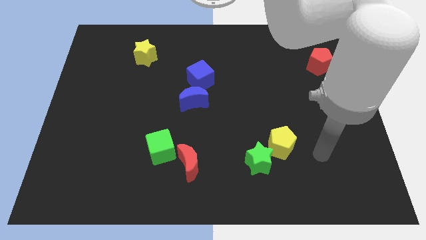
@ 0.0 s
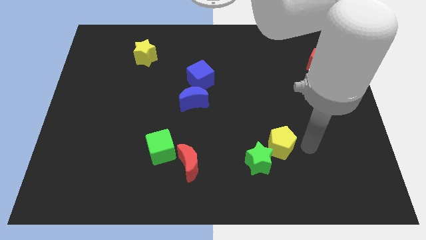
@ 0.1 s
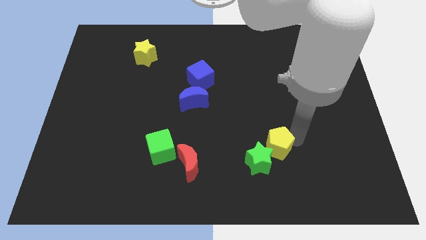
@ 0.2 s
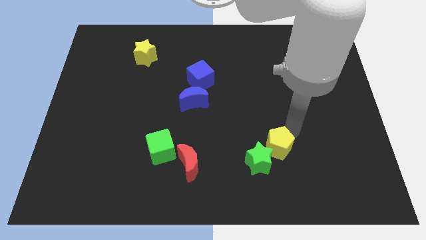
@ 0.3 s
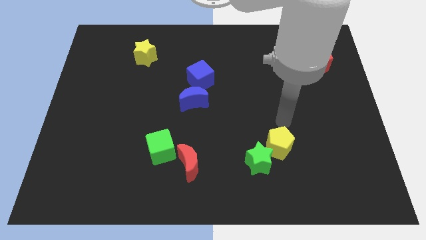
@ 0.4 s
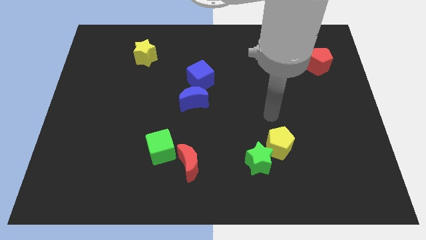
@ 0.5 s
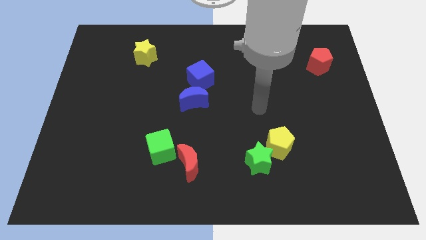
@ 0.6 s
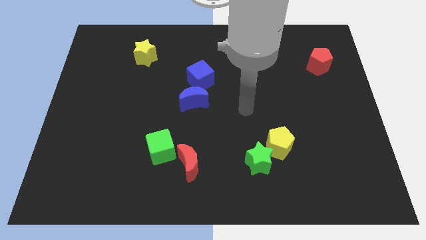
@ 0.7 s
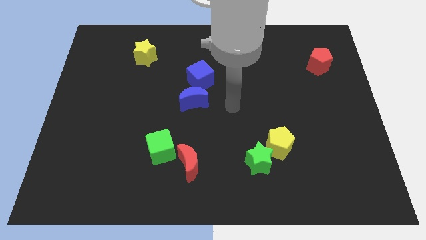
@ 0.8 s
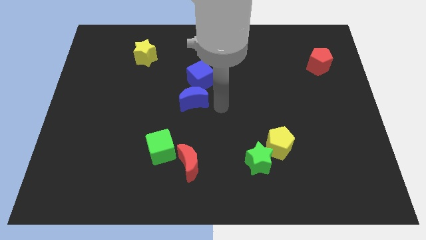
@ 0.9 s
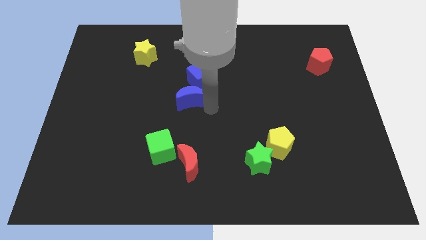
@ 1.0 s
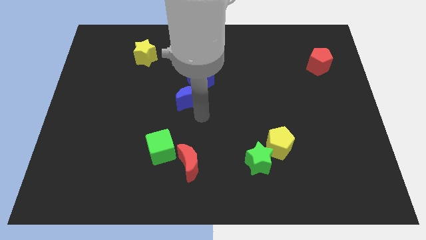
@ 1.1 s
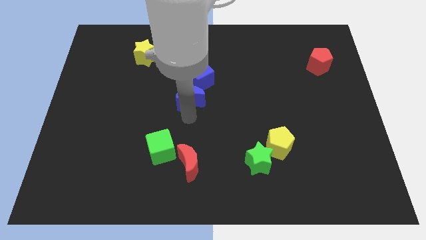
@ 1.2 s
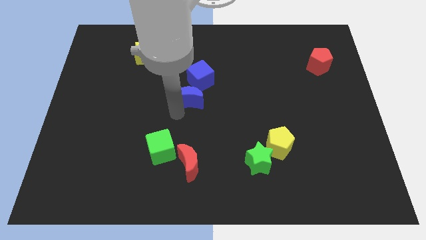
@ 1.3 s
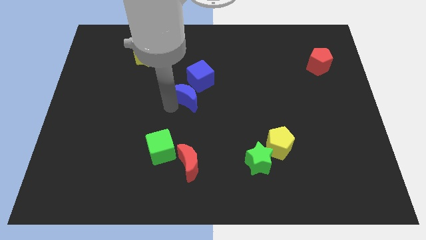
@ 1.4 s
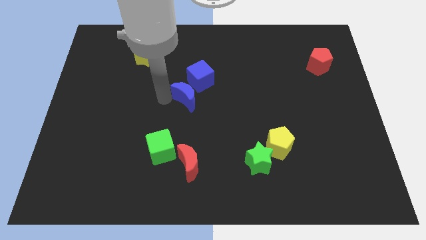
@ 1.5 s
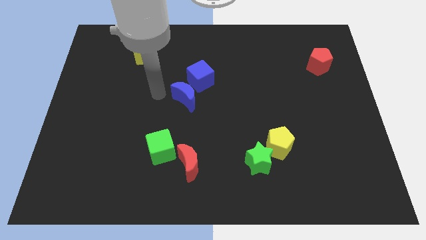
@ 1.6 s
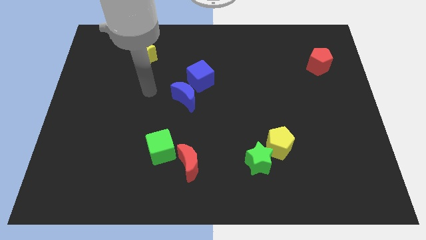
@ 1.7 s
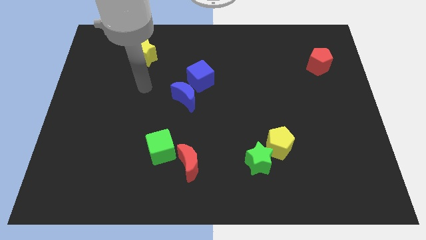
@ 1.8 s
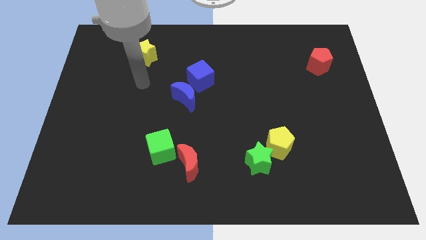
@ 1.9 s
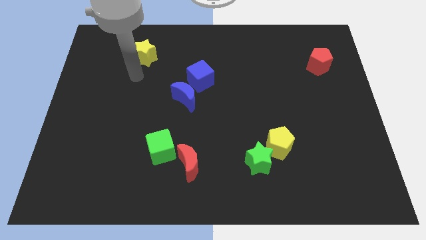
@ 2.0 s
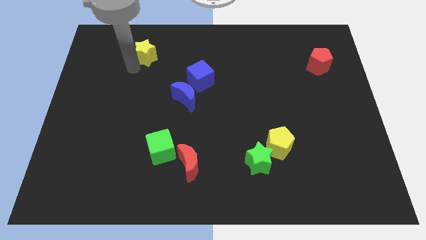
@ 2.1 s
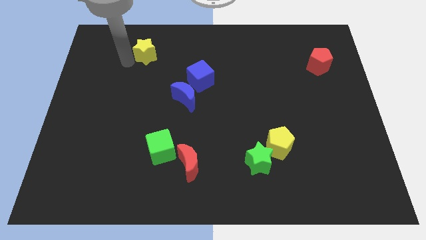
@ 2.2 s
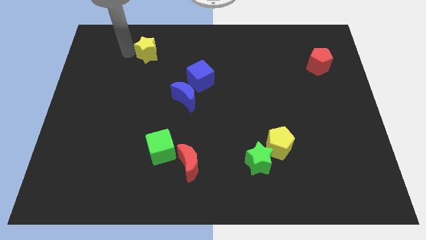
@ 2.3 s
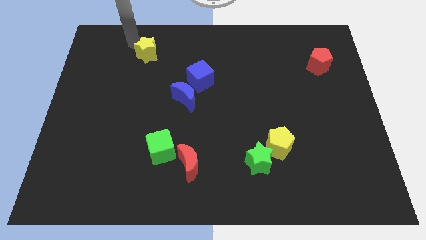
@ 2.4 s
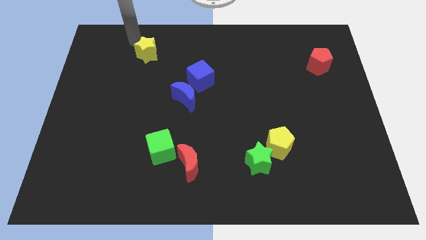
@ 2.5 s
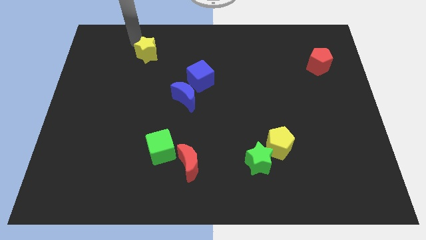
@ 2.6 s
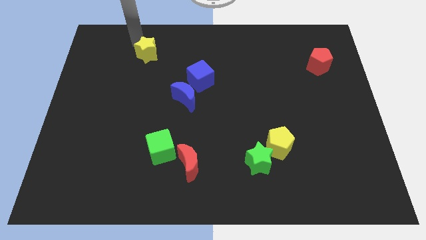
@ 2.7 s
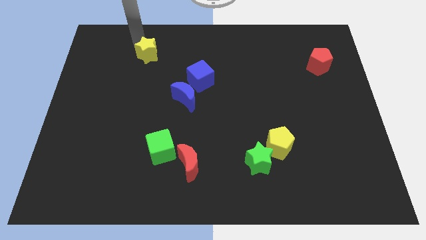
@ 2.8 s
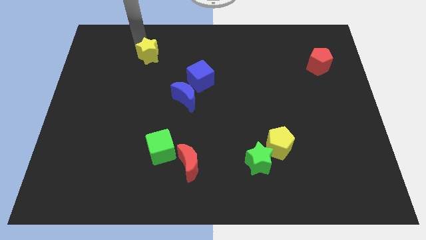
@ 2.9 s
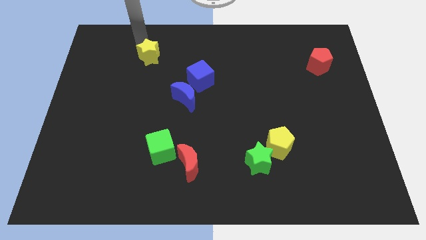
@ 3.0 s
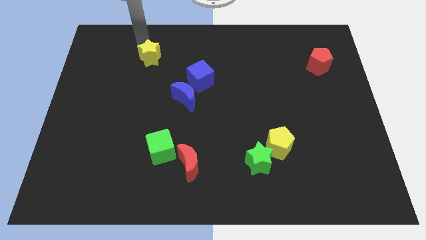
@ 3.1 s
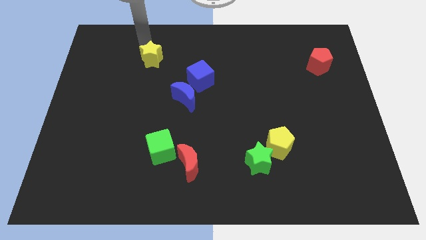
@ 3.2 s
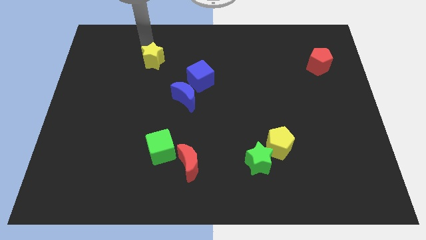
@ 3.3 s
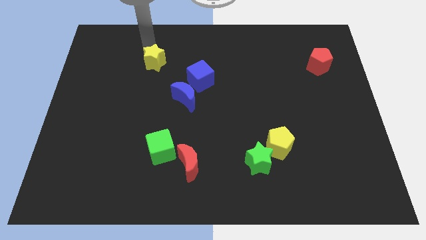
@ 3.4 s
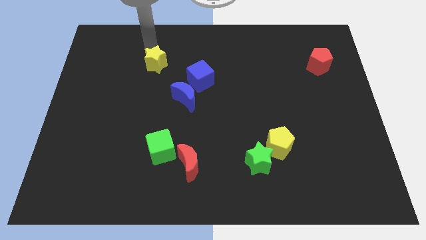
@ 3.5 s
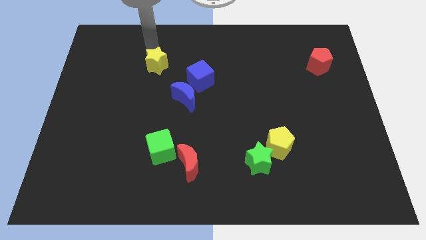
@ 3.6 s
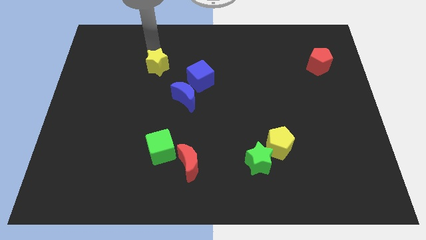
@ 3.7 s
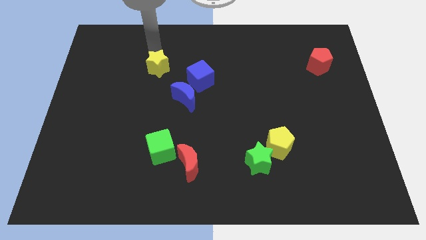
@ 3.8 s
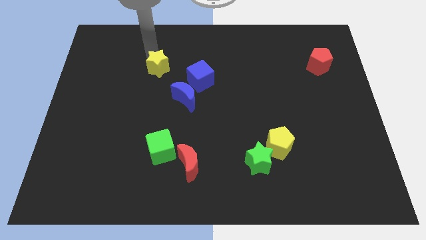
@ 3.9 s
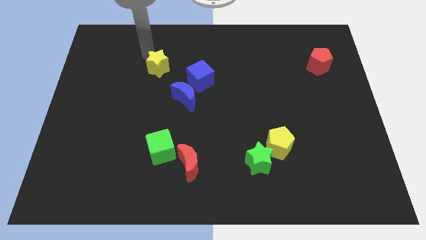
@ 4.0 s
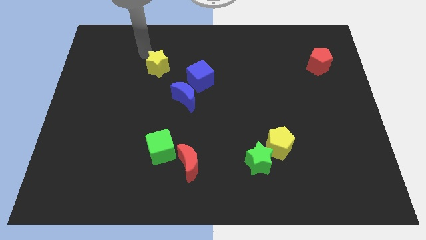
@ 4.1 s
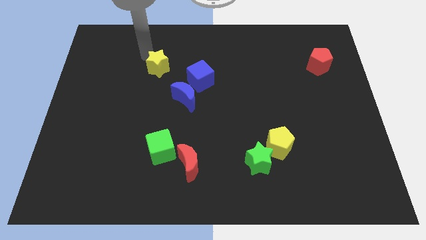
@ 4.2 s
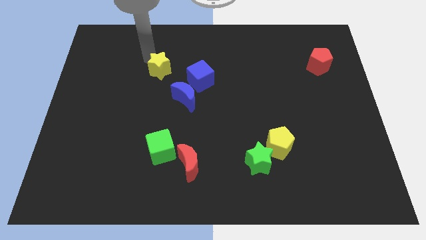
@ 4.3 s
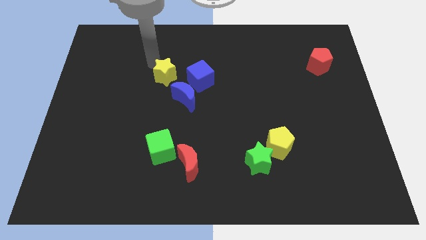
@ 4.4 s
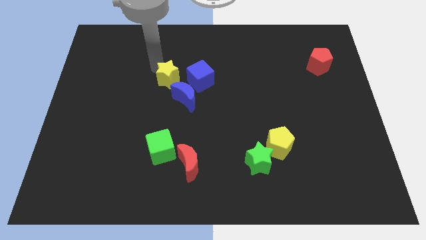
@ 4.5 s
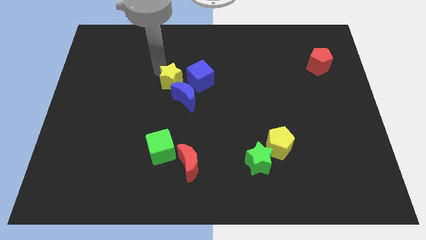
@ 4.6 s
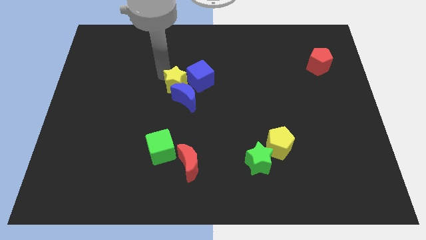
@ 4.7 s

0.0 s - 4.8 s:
move the yellow star next to the blue moon

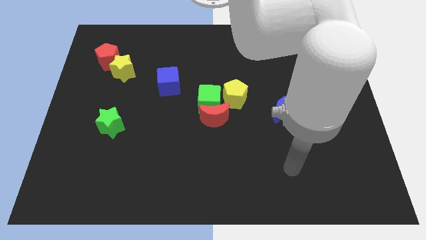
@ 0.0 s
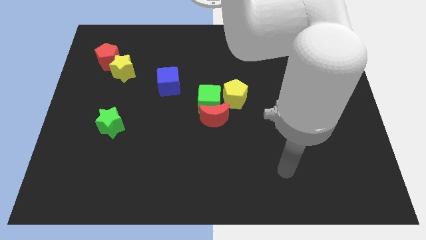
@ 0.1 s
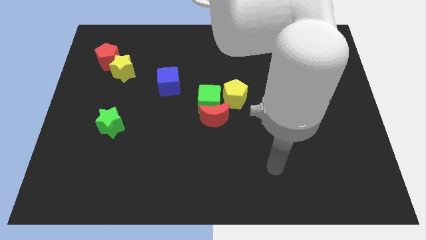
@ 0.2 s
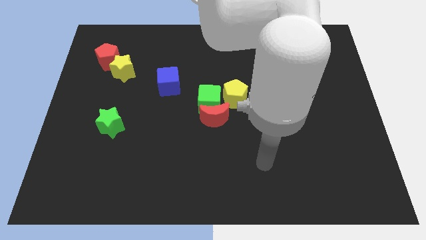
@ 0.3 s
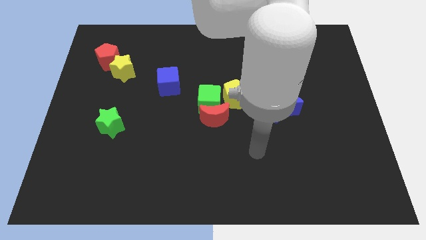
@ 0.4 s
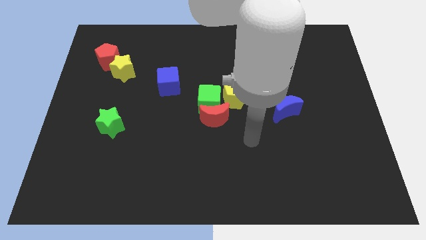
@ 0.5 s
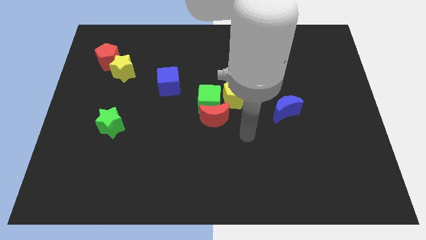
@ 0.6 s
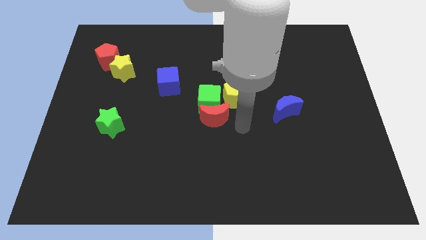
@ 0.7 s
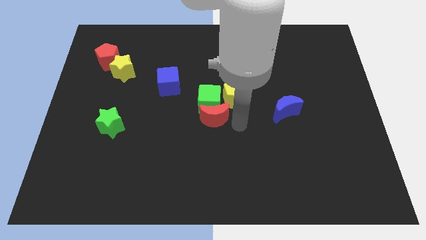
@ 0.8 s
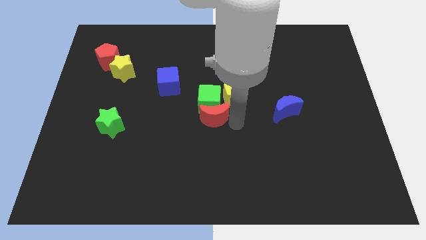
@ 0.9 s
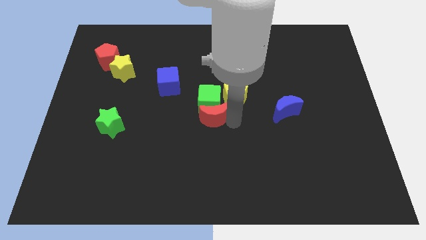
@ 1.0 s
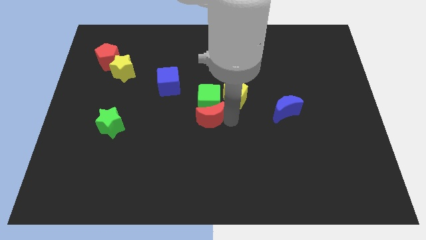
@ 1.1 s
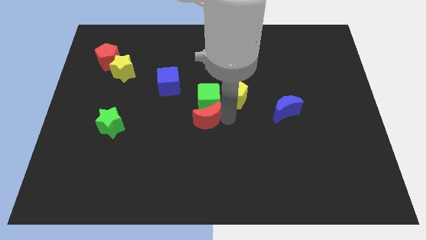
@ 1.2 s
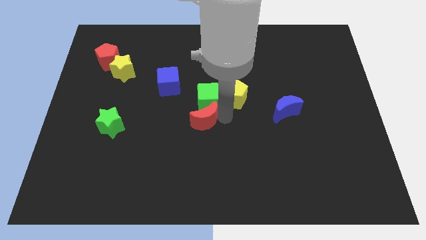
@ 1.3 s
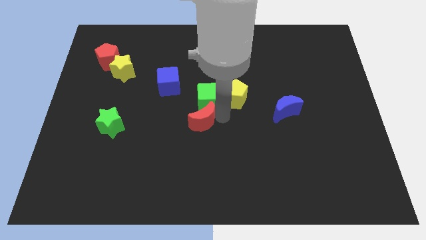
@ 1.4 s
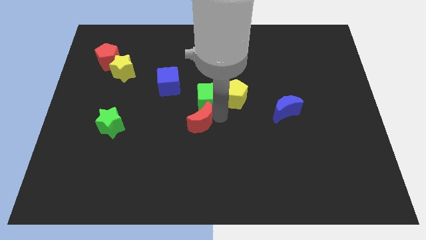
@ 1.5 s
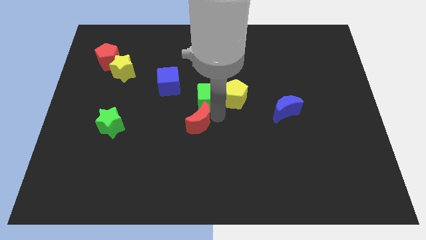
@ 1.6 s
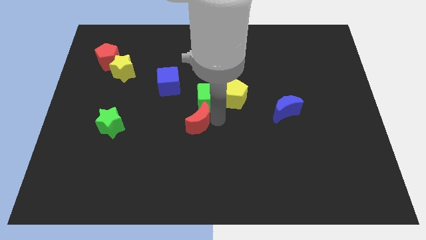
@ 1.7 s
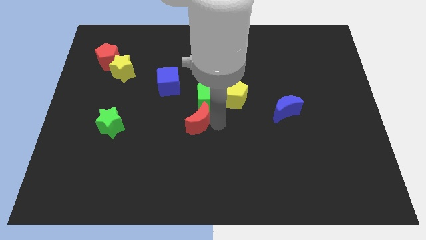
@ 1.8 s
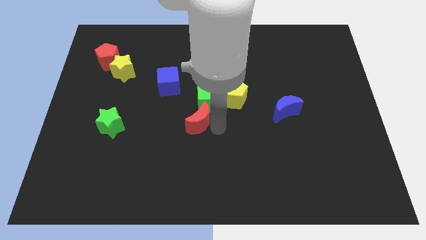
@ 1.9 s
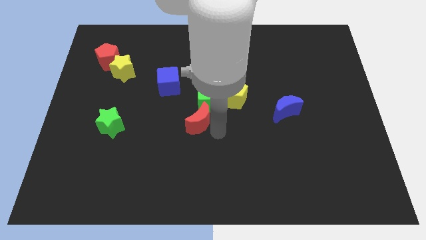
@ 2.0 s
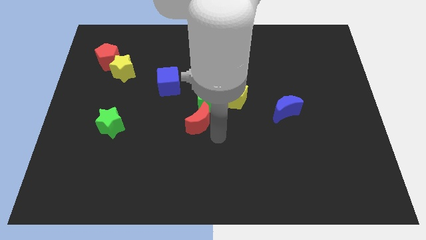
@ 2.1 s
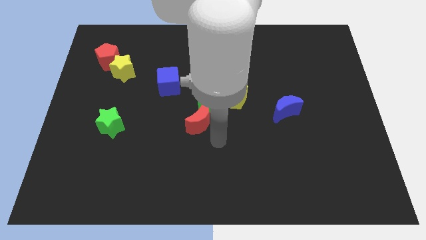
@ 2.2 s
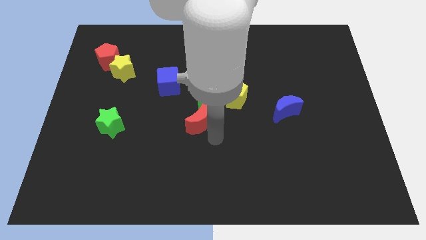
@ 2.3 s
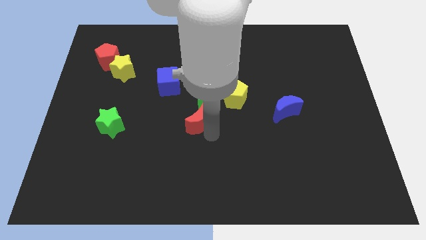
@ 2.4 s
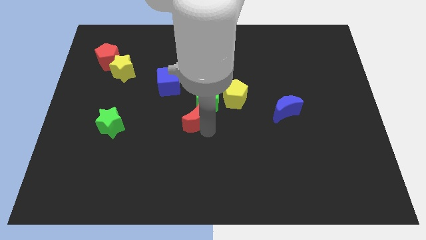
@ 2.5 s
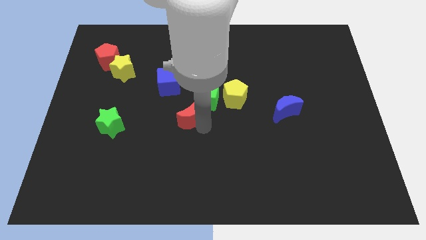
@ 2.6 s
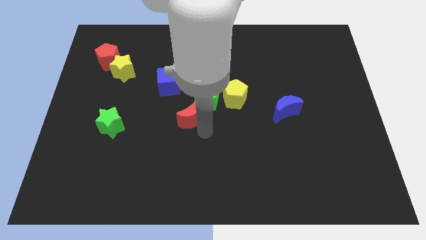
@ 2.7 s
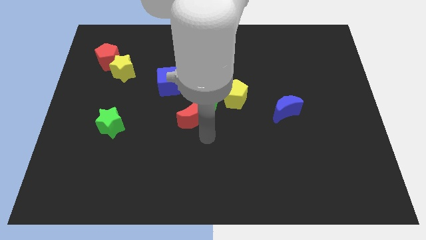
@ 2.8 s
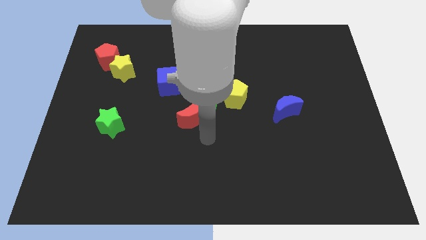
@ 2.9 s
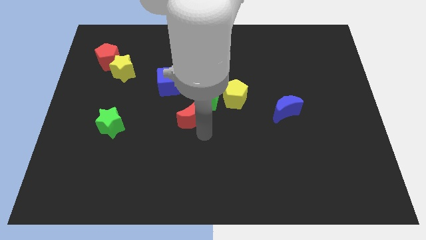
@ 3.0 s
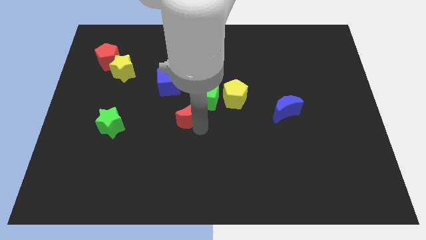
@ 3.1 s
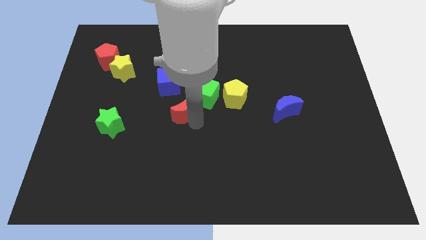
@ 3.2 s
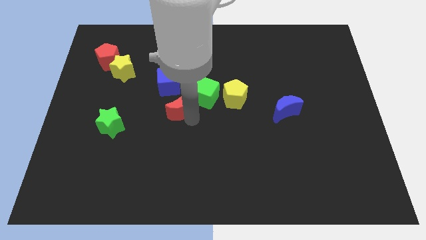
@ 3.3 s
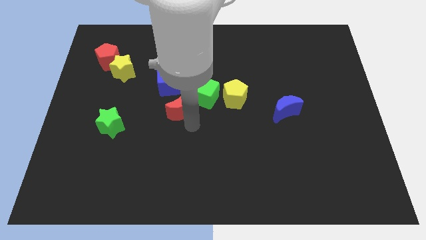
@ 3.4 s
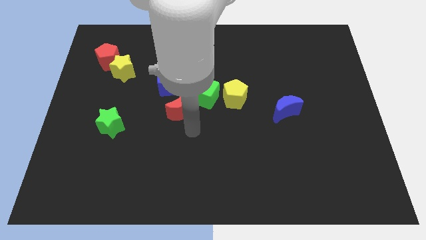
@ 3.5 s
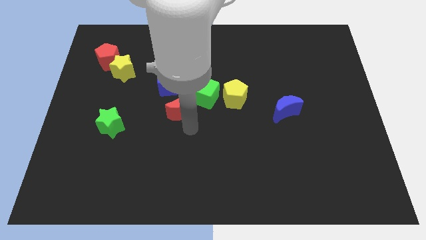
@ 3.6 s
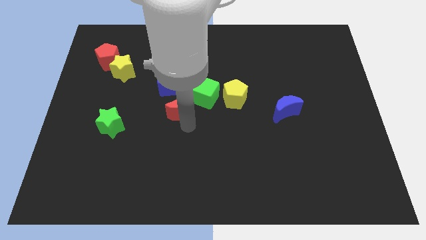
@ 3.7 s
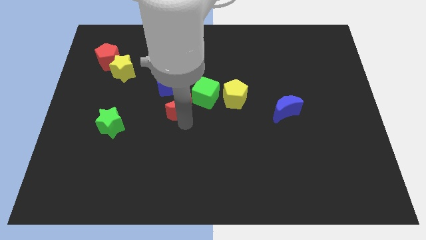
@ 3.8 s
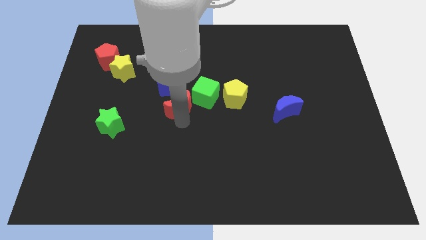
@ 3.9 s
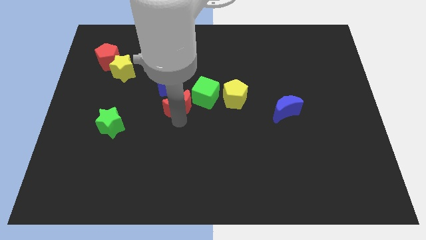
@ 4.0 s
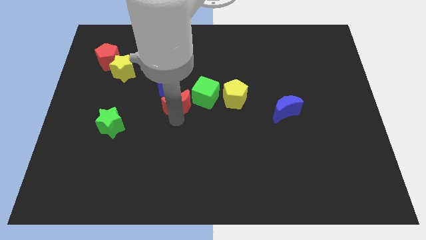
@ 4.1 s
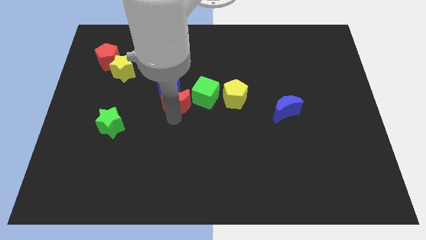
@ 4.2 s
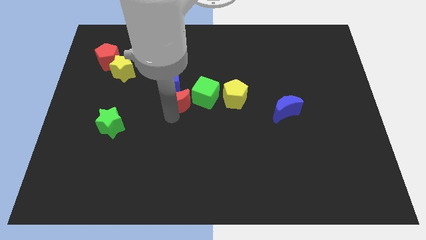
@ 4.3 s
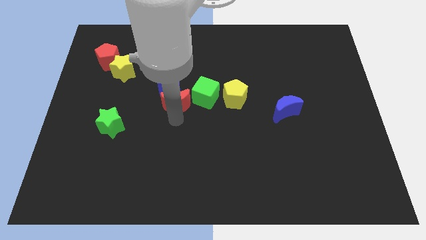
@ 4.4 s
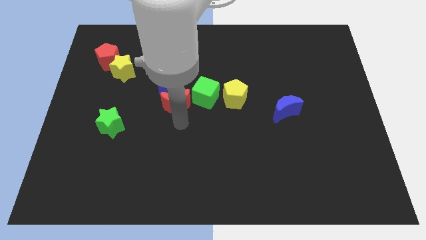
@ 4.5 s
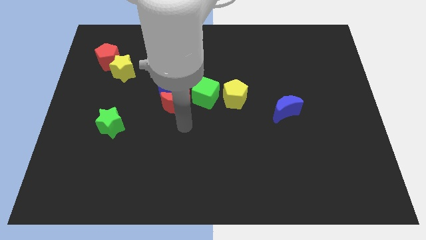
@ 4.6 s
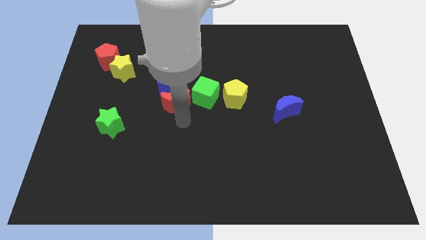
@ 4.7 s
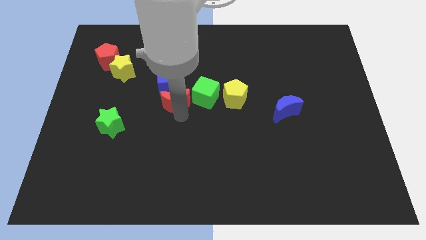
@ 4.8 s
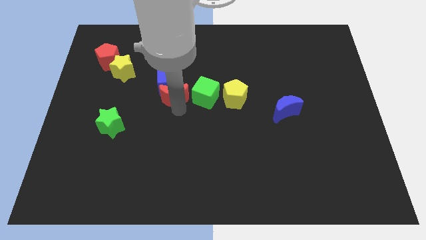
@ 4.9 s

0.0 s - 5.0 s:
put the red moon to the blue cube
